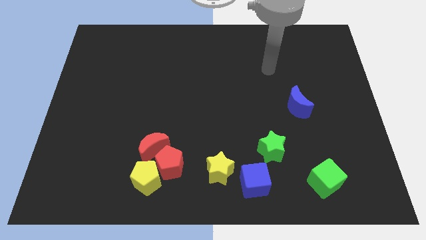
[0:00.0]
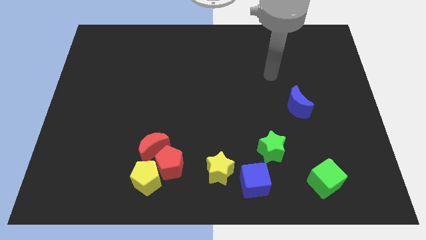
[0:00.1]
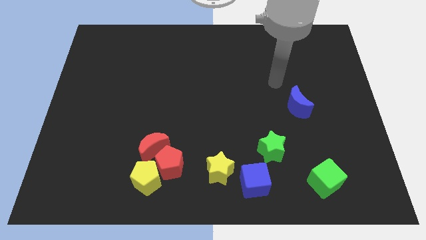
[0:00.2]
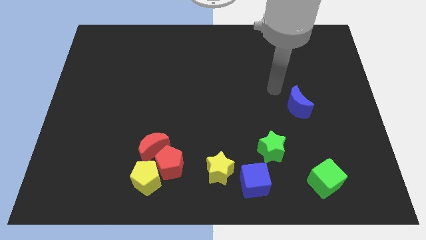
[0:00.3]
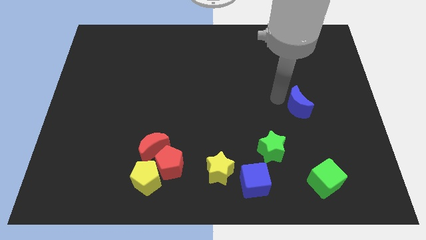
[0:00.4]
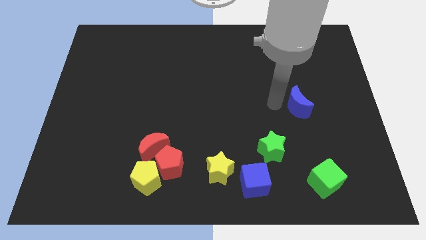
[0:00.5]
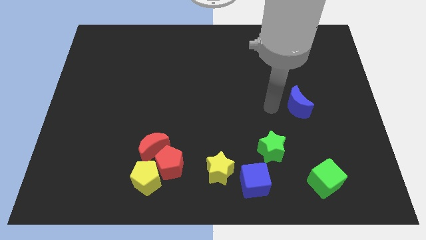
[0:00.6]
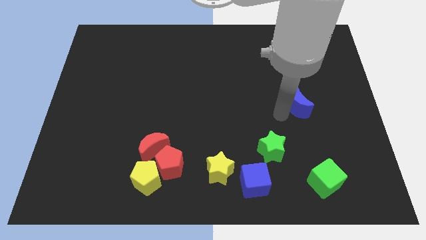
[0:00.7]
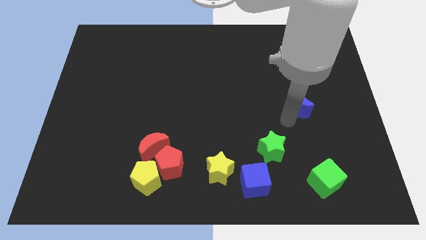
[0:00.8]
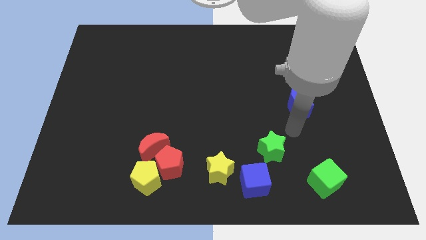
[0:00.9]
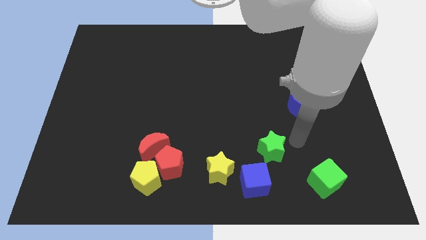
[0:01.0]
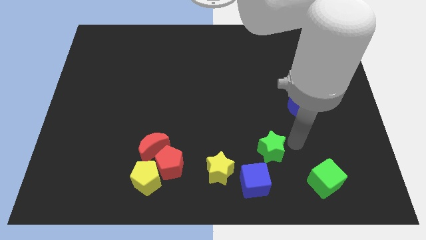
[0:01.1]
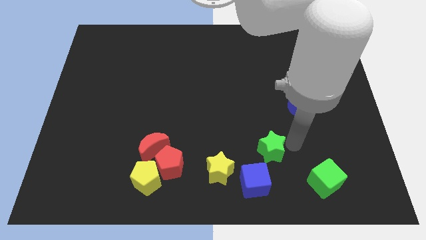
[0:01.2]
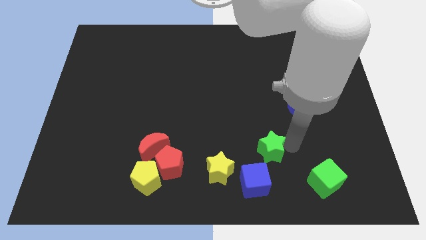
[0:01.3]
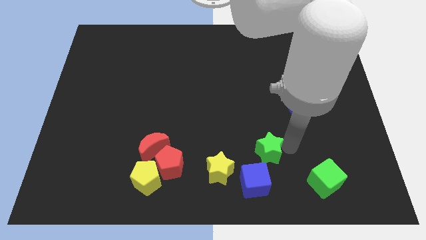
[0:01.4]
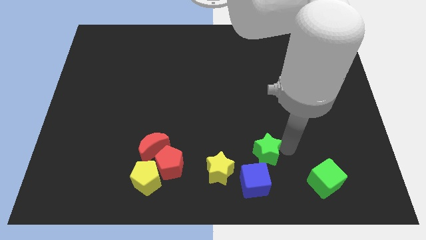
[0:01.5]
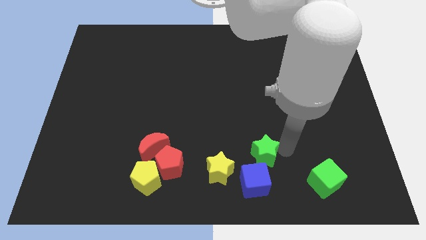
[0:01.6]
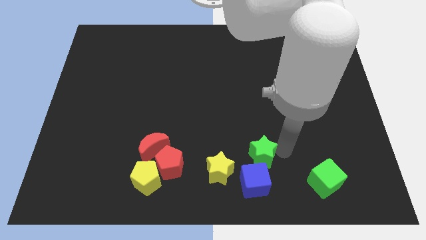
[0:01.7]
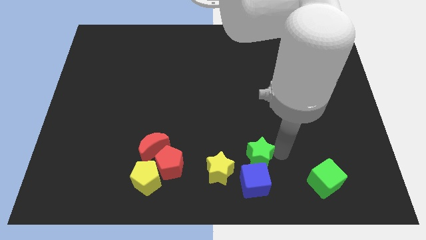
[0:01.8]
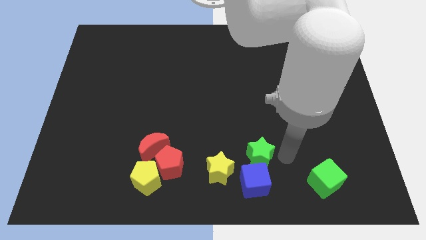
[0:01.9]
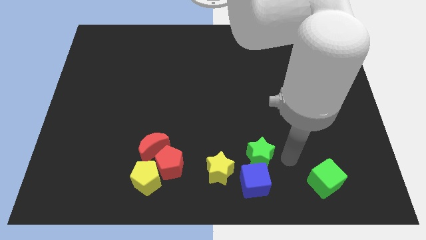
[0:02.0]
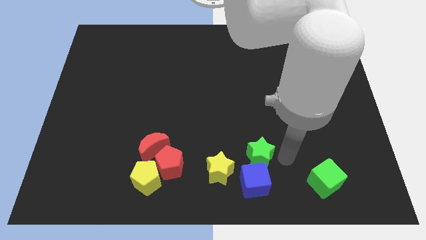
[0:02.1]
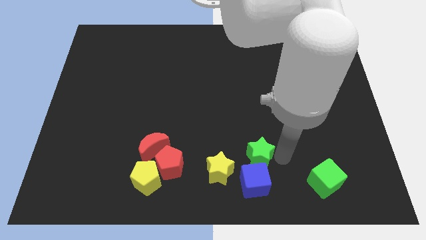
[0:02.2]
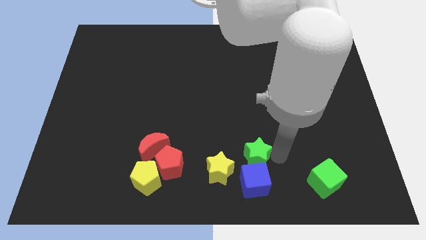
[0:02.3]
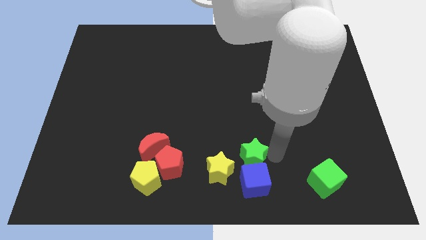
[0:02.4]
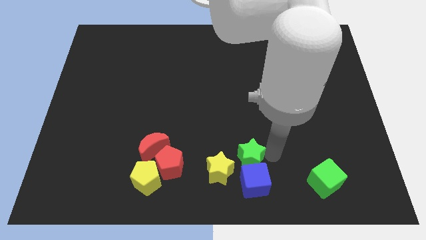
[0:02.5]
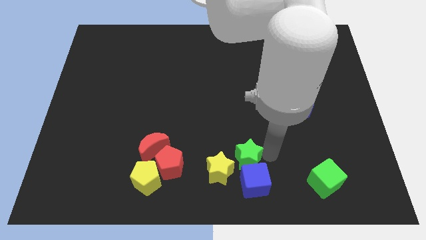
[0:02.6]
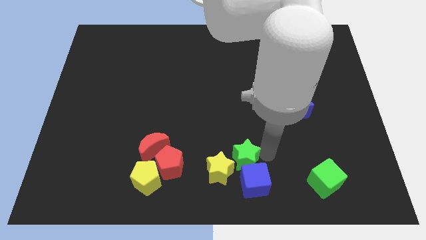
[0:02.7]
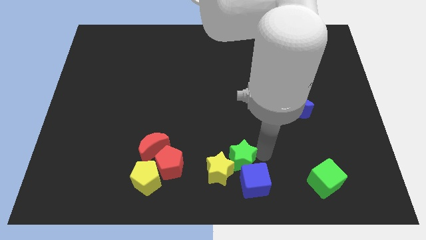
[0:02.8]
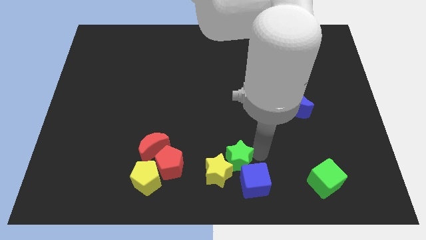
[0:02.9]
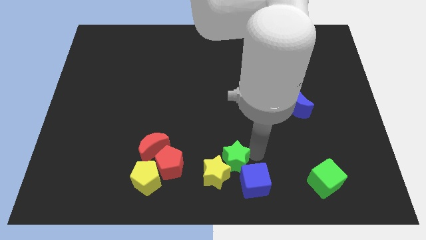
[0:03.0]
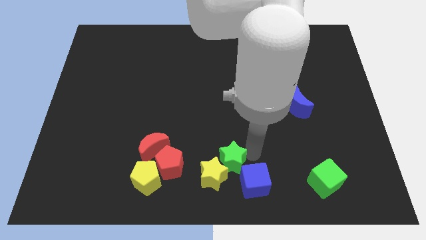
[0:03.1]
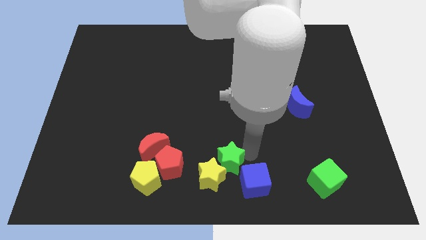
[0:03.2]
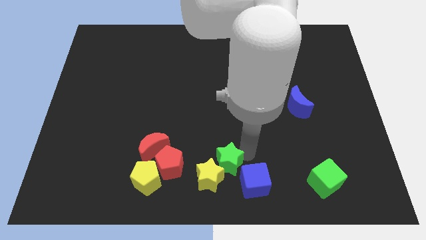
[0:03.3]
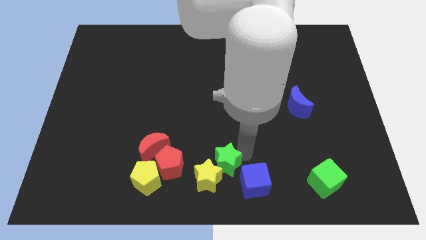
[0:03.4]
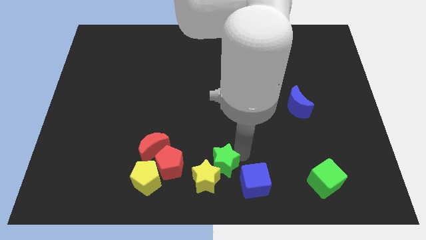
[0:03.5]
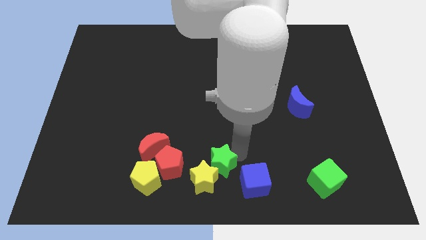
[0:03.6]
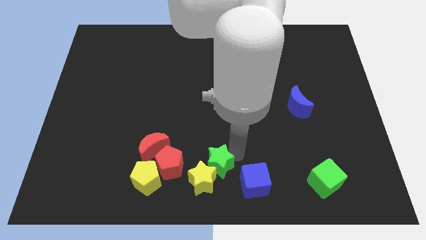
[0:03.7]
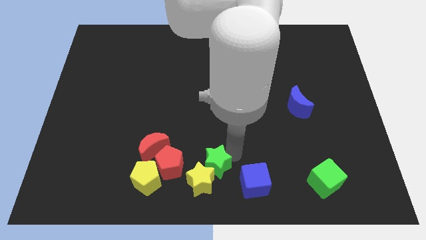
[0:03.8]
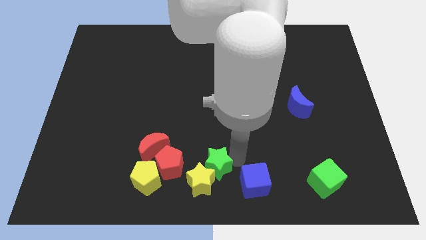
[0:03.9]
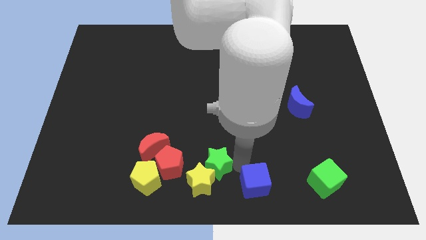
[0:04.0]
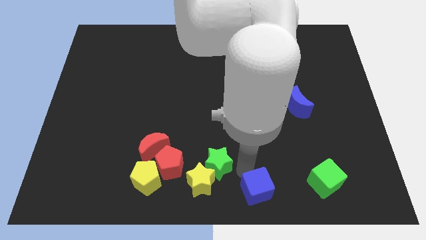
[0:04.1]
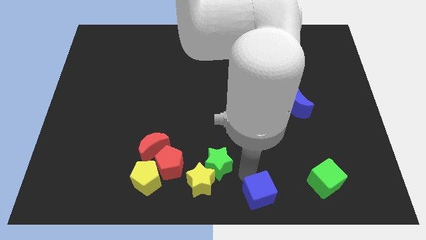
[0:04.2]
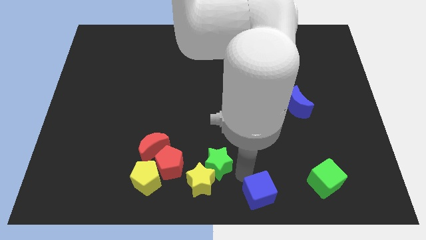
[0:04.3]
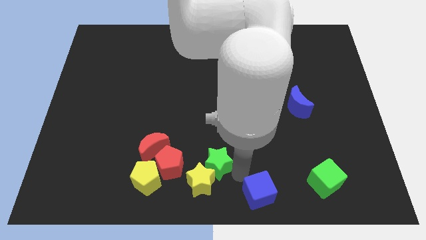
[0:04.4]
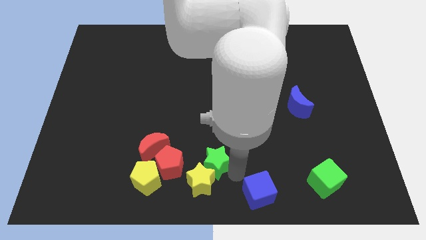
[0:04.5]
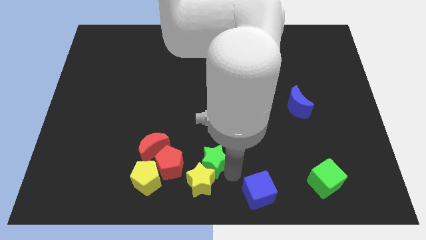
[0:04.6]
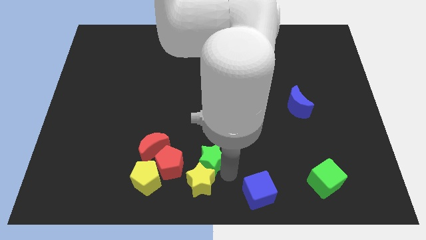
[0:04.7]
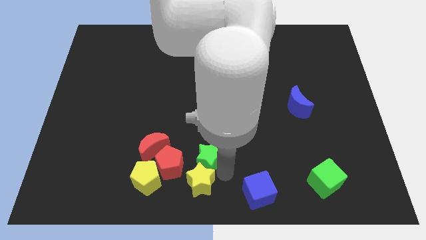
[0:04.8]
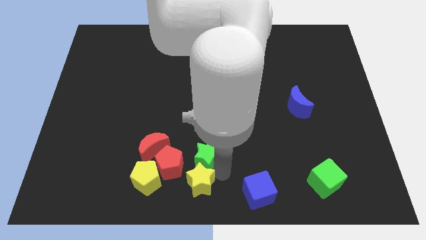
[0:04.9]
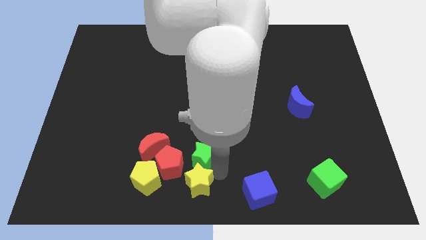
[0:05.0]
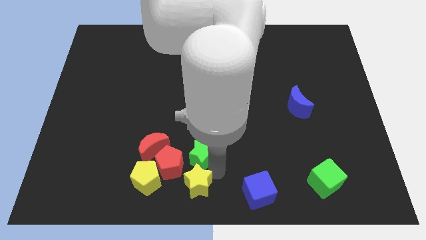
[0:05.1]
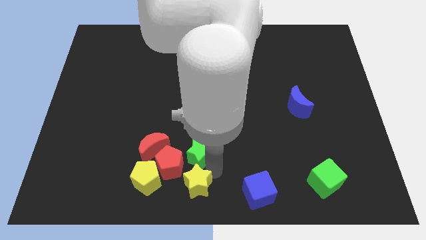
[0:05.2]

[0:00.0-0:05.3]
put the green star towards the red pentagon

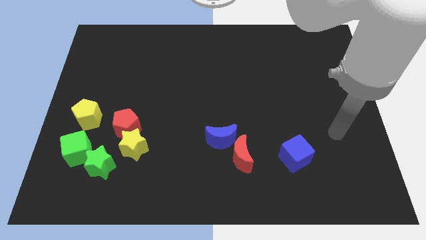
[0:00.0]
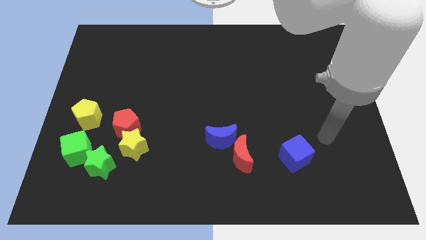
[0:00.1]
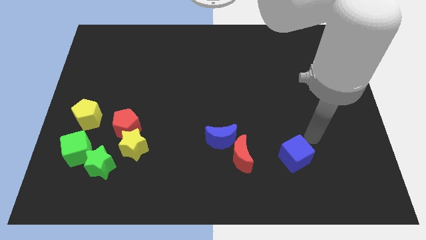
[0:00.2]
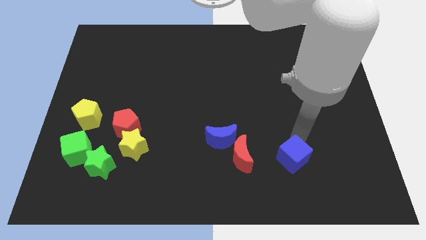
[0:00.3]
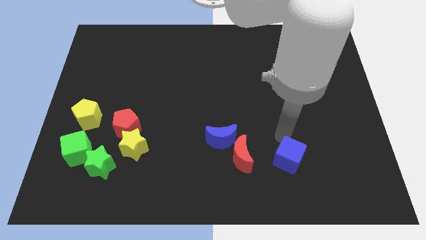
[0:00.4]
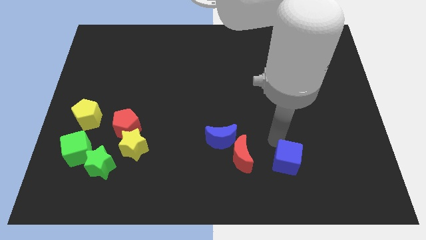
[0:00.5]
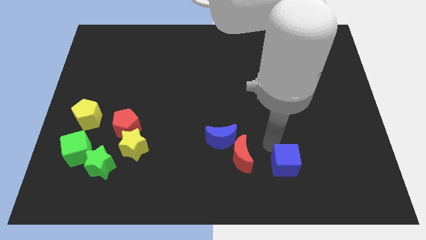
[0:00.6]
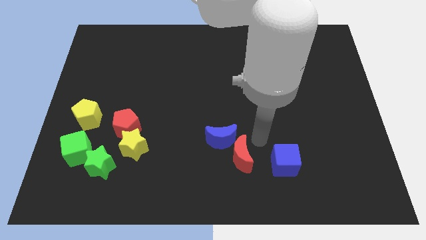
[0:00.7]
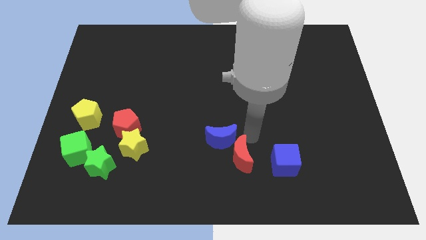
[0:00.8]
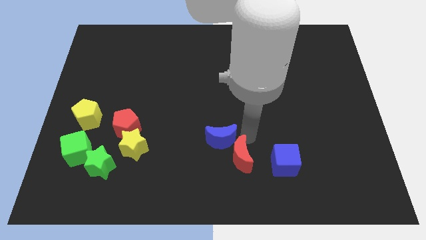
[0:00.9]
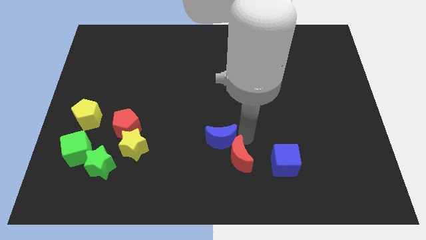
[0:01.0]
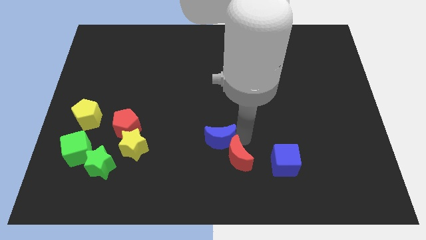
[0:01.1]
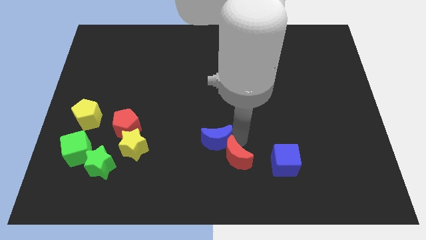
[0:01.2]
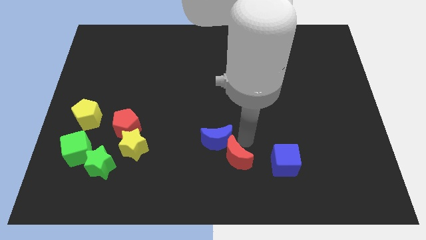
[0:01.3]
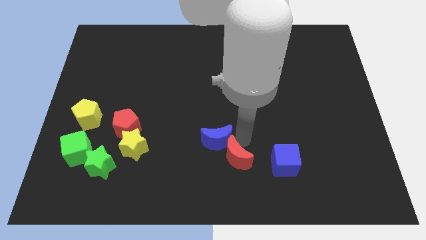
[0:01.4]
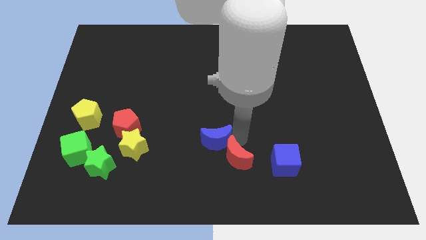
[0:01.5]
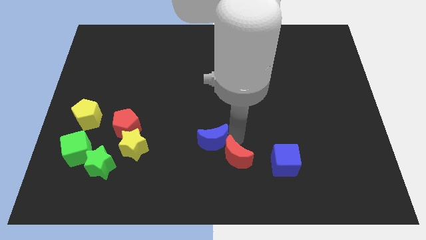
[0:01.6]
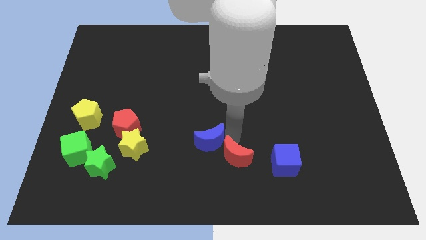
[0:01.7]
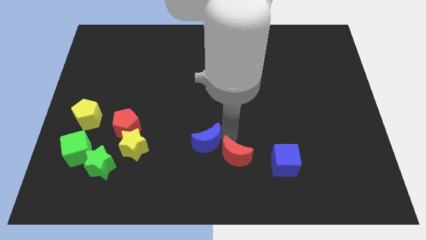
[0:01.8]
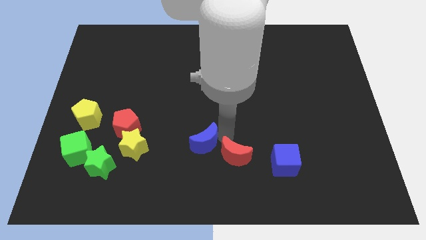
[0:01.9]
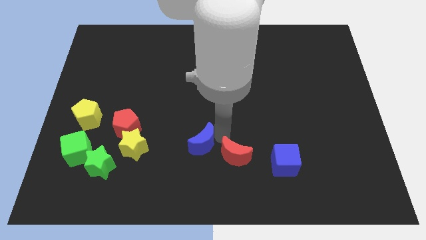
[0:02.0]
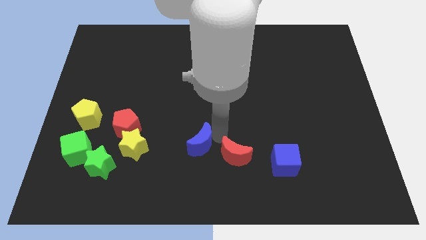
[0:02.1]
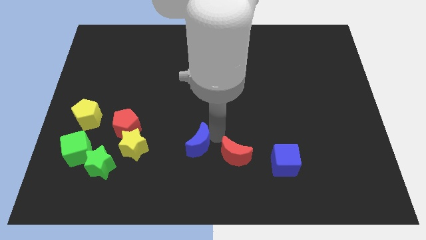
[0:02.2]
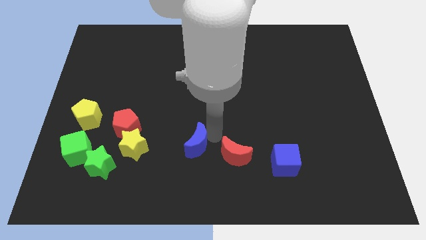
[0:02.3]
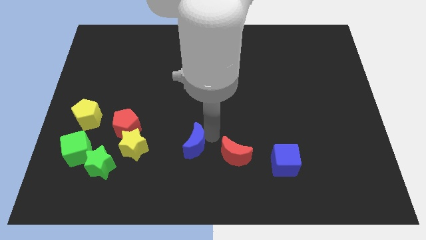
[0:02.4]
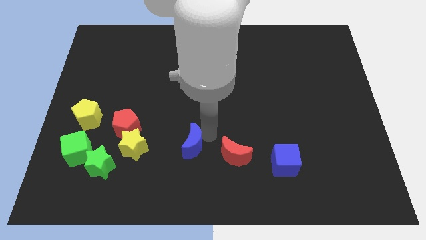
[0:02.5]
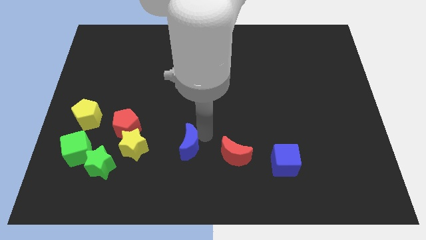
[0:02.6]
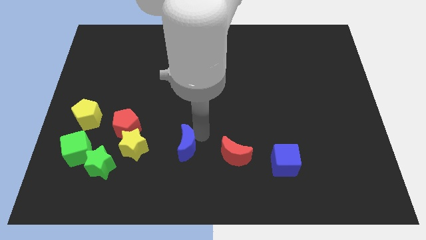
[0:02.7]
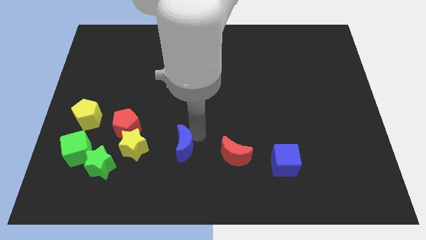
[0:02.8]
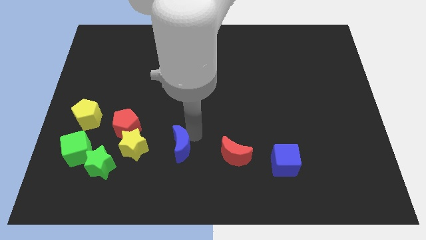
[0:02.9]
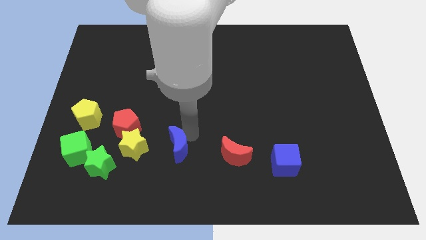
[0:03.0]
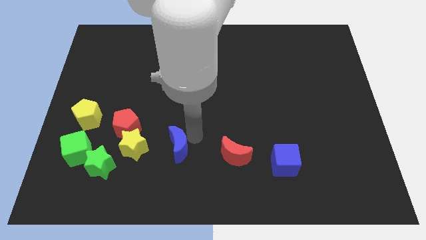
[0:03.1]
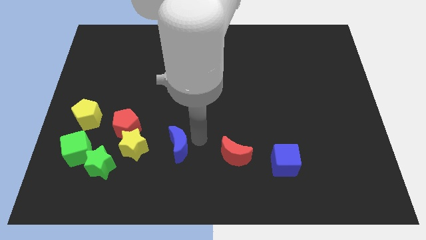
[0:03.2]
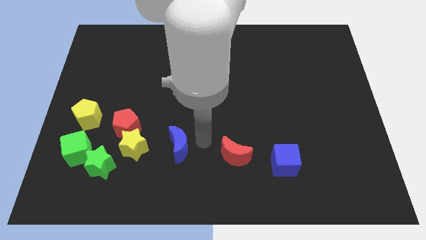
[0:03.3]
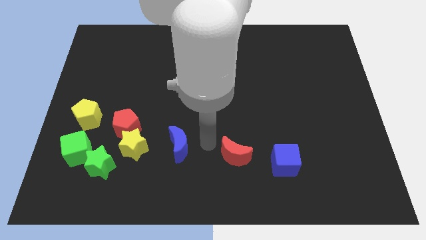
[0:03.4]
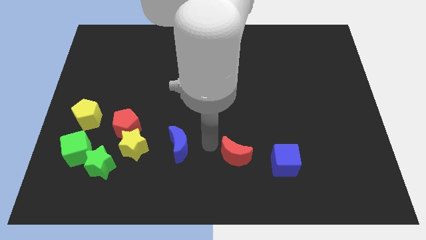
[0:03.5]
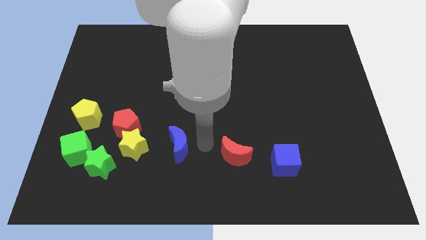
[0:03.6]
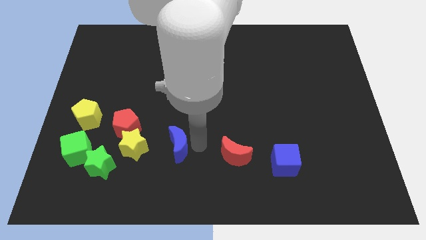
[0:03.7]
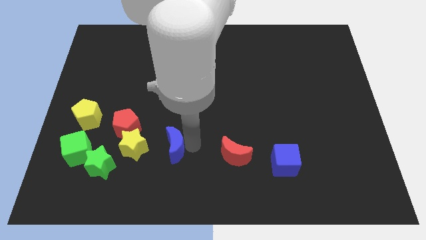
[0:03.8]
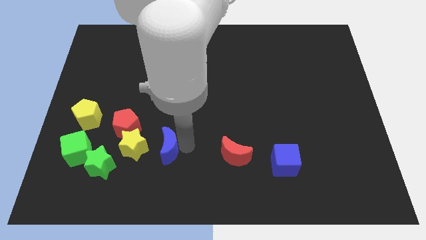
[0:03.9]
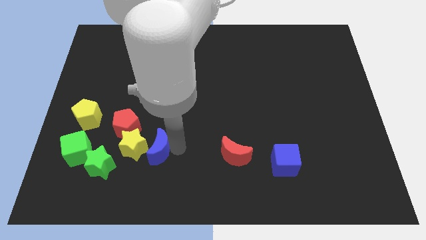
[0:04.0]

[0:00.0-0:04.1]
put the blue moon to the yellow star
